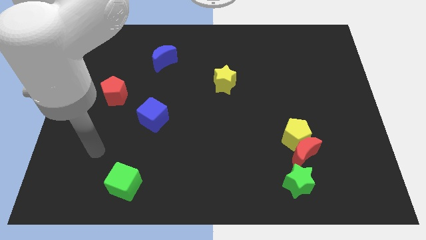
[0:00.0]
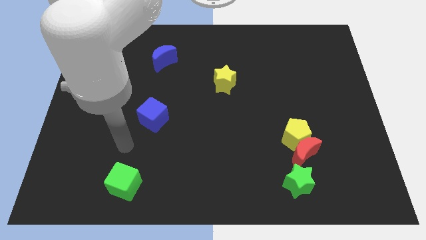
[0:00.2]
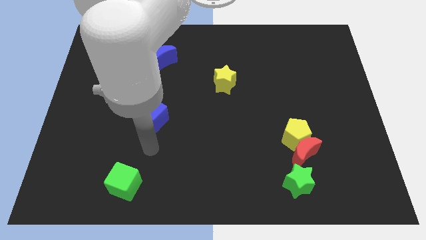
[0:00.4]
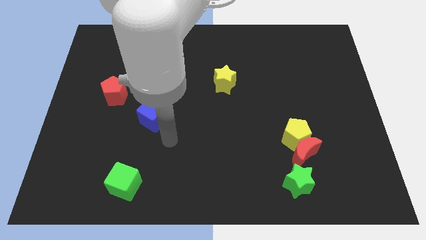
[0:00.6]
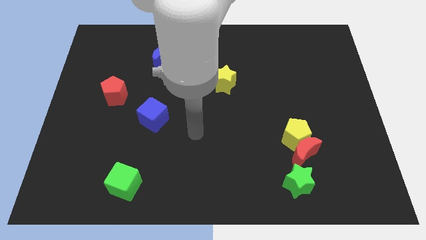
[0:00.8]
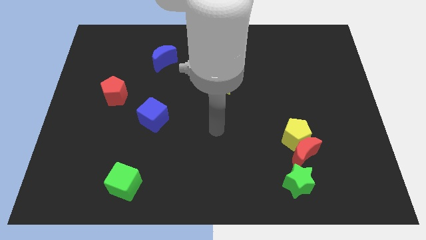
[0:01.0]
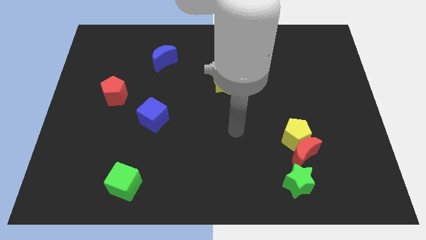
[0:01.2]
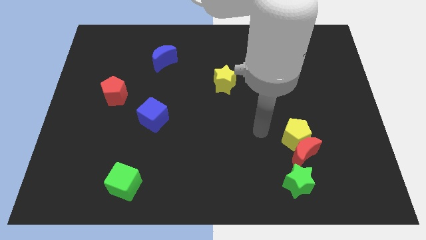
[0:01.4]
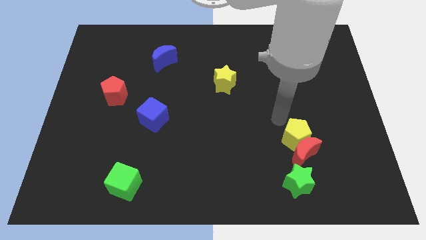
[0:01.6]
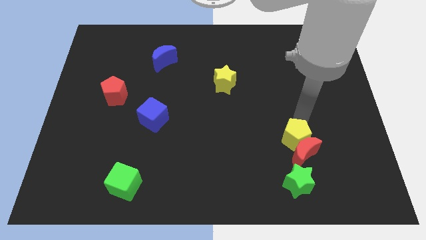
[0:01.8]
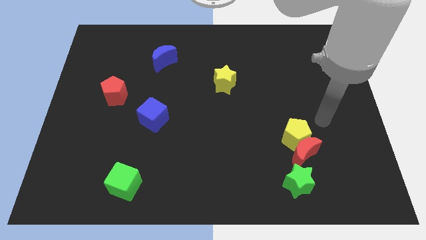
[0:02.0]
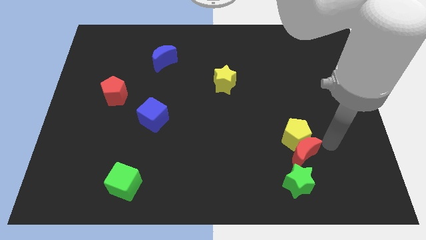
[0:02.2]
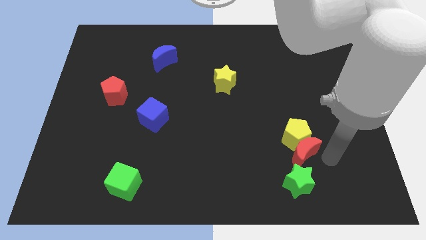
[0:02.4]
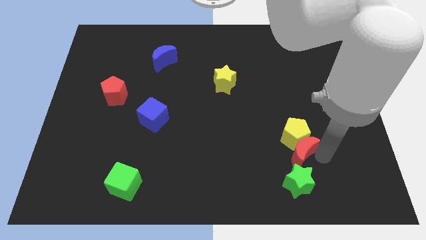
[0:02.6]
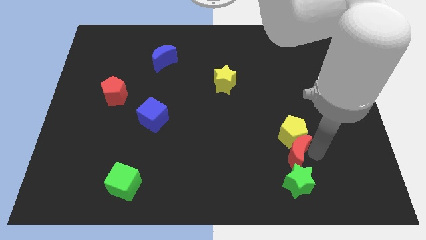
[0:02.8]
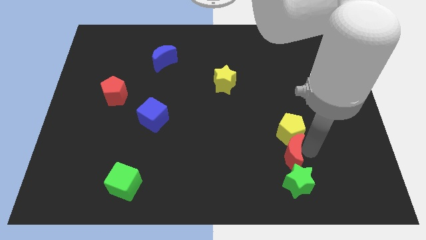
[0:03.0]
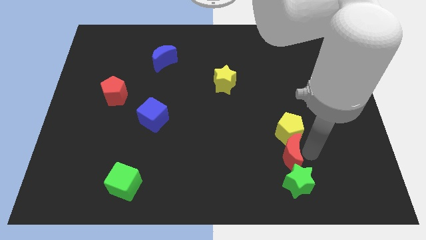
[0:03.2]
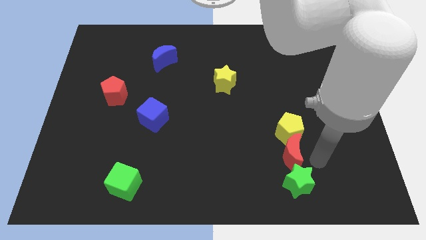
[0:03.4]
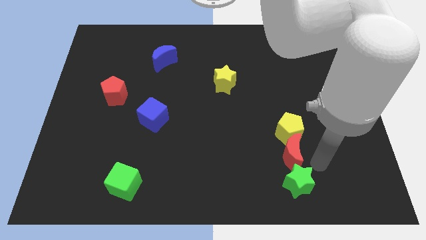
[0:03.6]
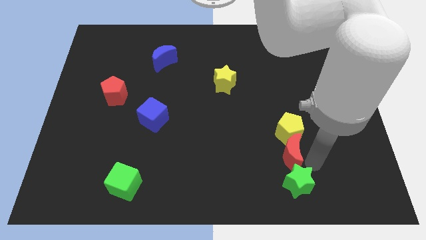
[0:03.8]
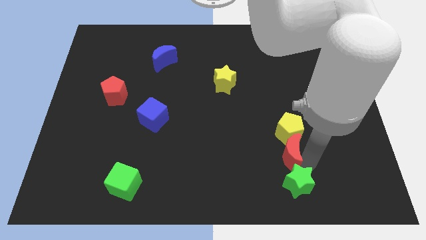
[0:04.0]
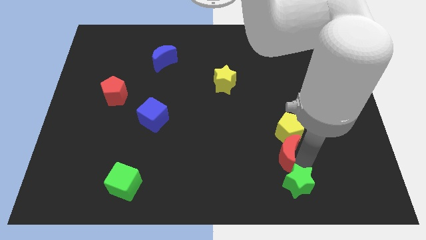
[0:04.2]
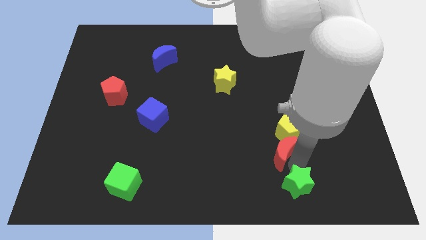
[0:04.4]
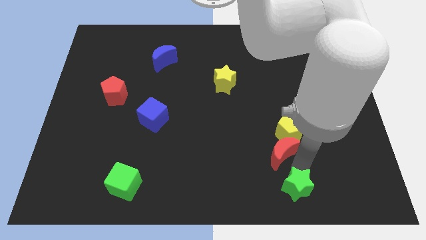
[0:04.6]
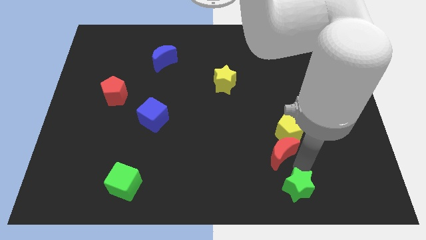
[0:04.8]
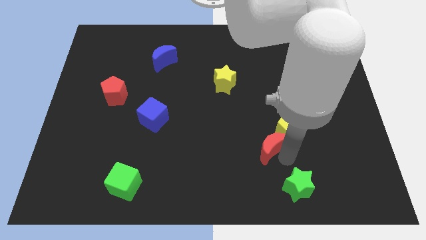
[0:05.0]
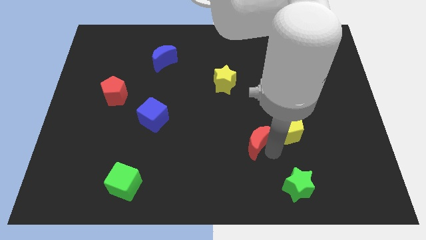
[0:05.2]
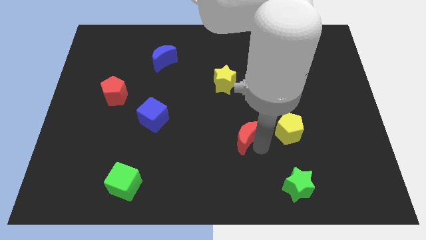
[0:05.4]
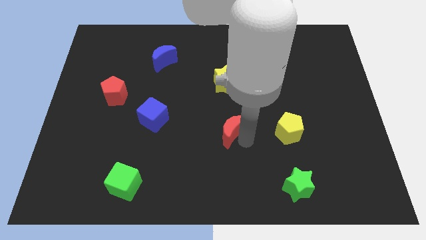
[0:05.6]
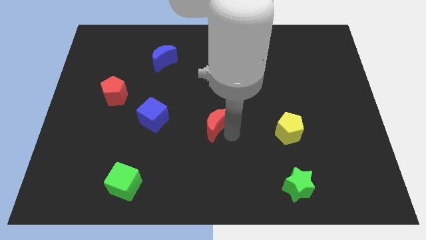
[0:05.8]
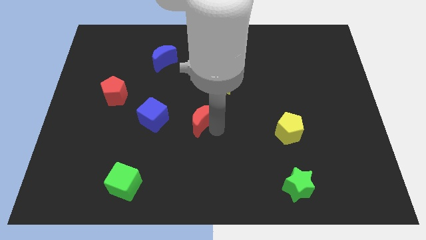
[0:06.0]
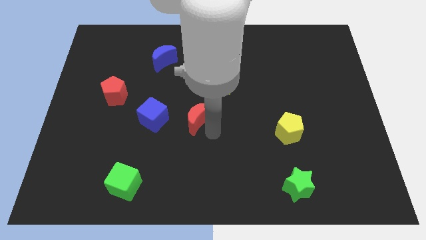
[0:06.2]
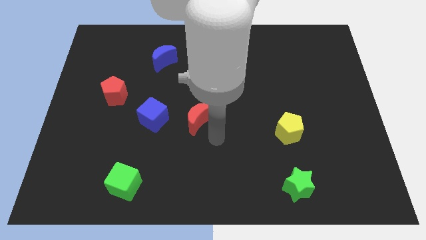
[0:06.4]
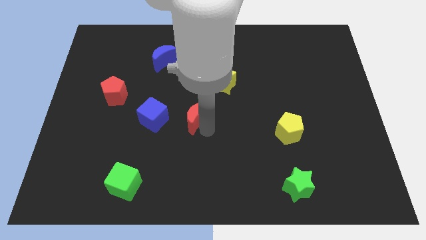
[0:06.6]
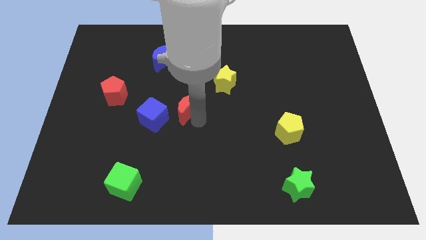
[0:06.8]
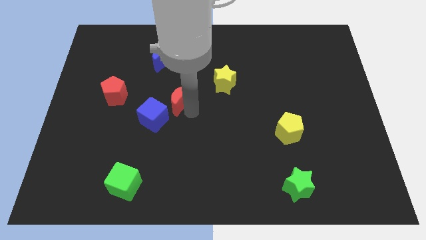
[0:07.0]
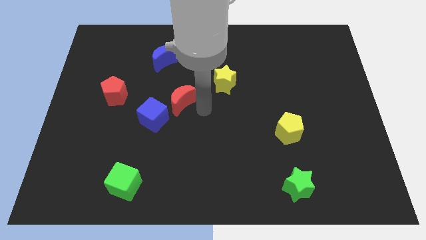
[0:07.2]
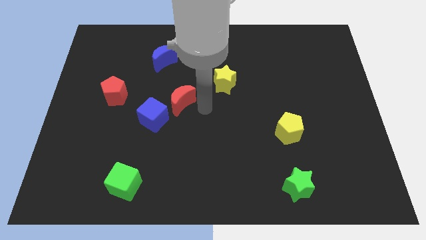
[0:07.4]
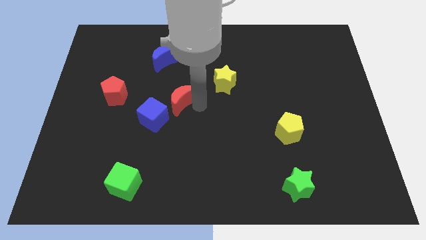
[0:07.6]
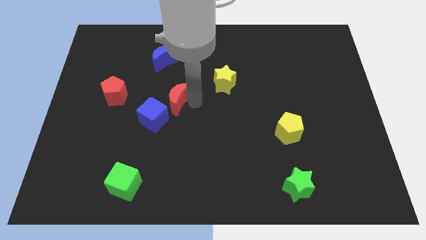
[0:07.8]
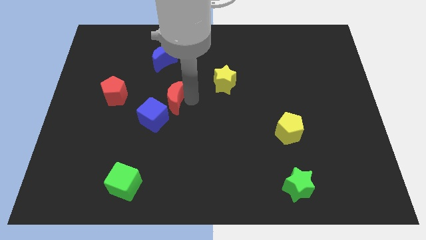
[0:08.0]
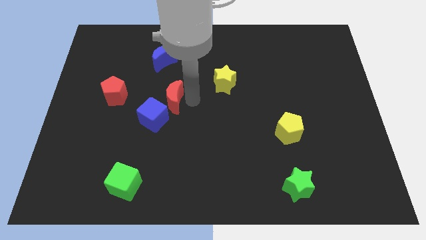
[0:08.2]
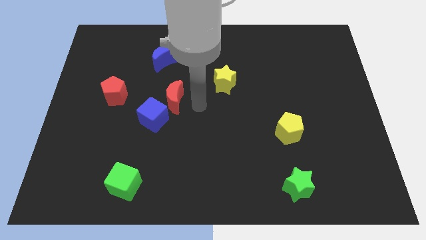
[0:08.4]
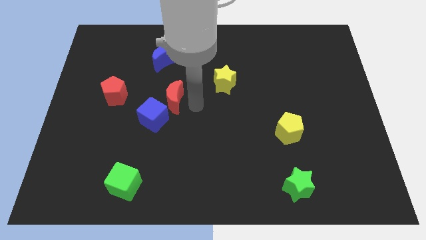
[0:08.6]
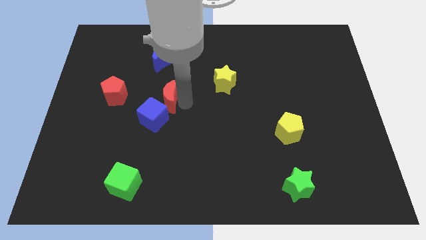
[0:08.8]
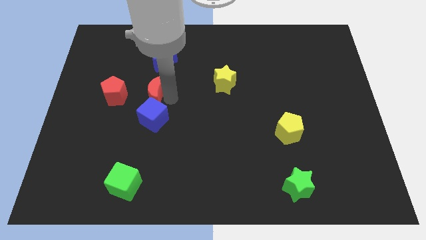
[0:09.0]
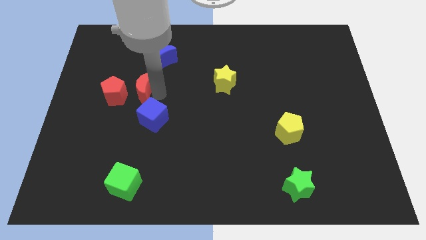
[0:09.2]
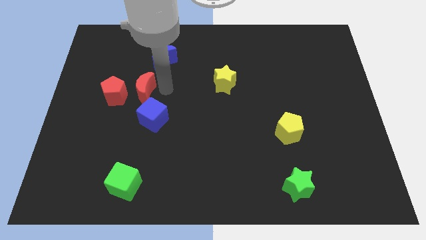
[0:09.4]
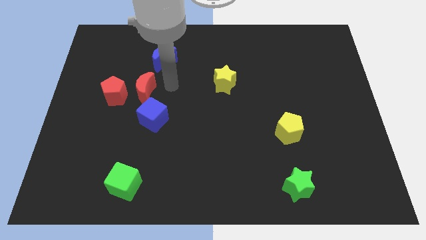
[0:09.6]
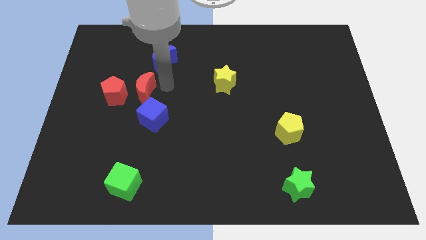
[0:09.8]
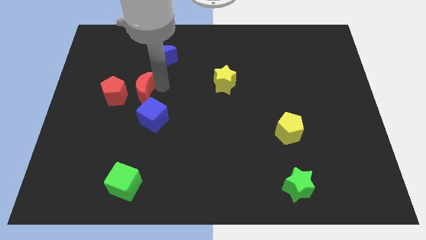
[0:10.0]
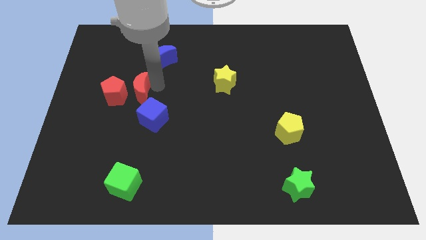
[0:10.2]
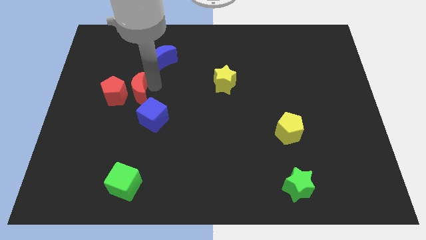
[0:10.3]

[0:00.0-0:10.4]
push the red moon towards the red pentagon

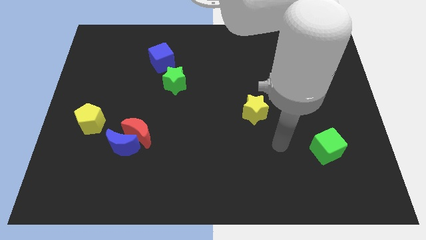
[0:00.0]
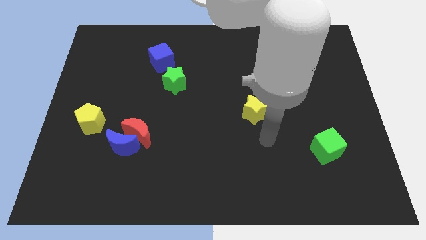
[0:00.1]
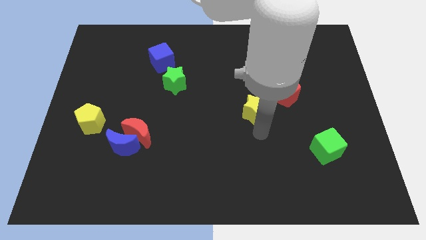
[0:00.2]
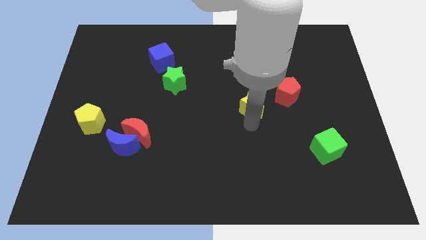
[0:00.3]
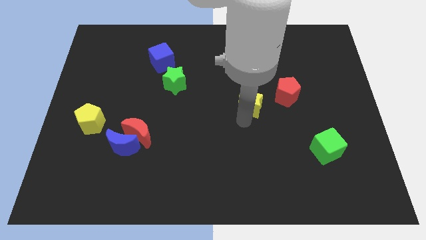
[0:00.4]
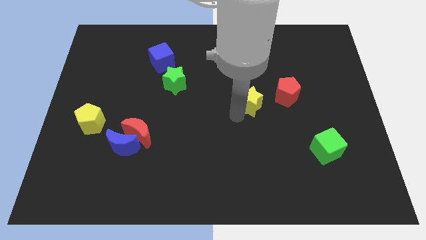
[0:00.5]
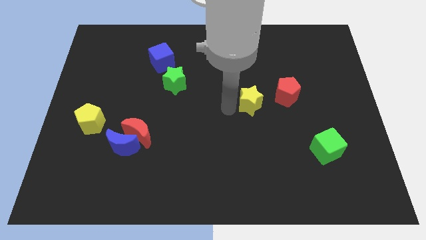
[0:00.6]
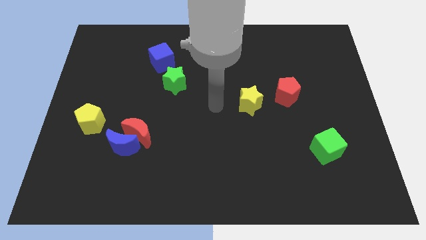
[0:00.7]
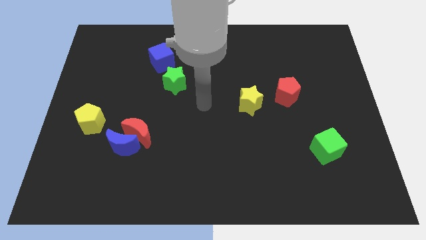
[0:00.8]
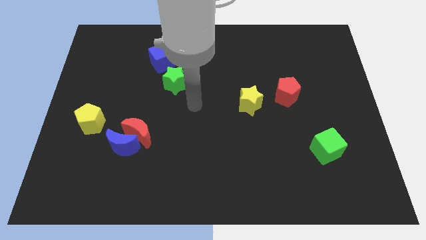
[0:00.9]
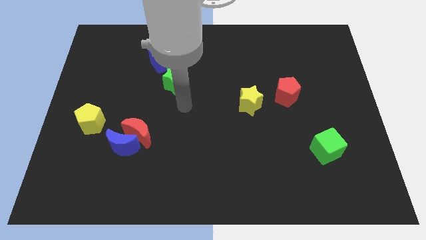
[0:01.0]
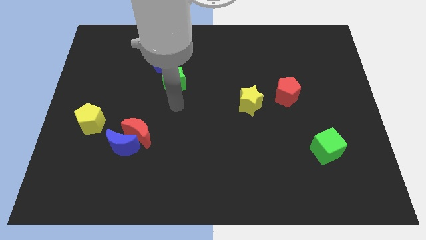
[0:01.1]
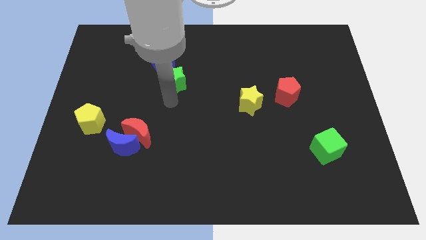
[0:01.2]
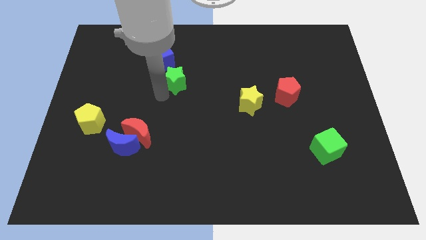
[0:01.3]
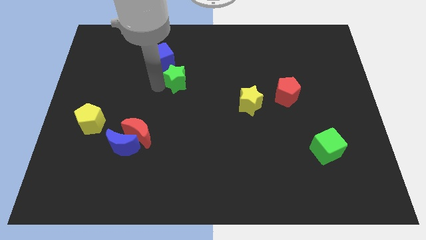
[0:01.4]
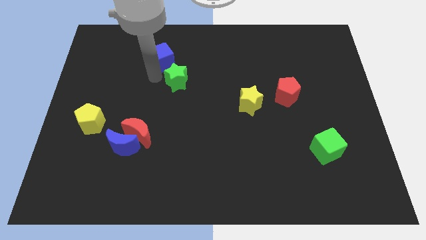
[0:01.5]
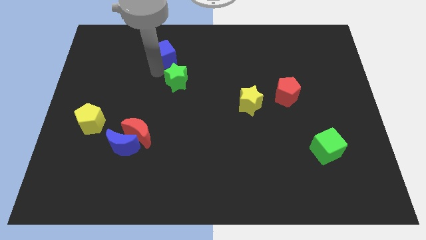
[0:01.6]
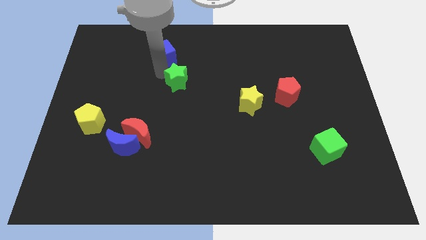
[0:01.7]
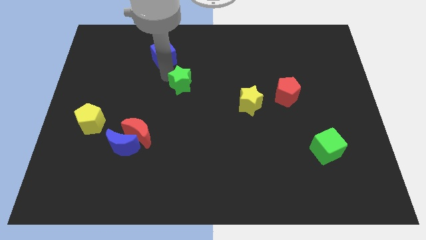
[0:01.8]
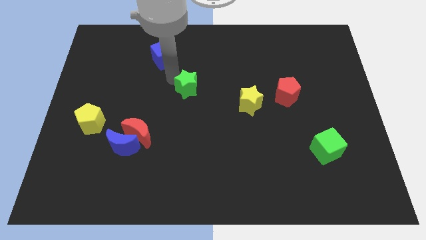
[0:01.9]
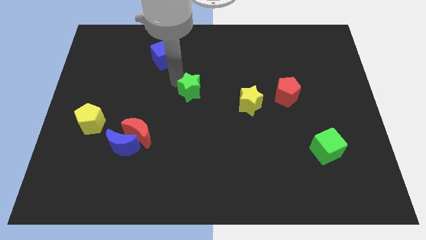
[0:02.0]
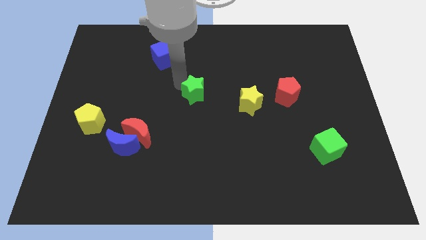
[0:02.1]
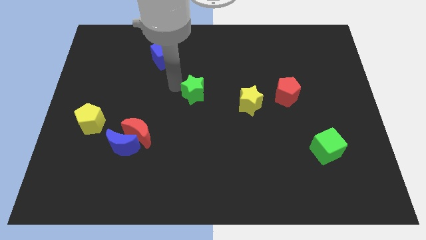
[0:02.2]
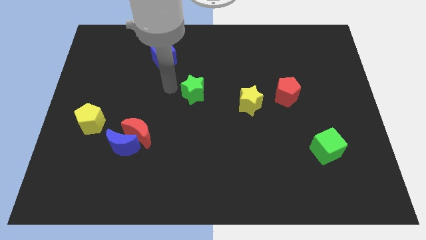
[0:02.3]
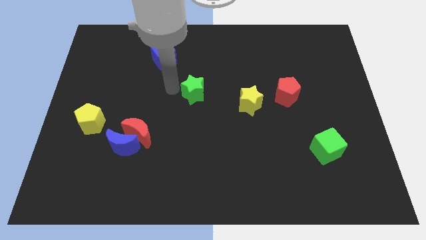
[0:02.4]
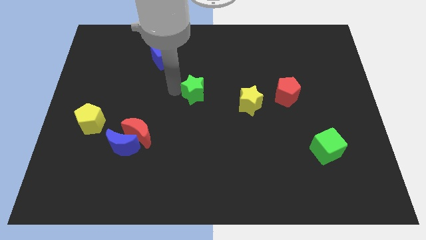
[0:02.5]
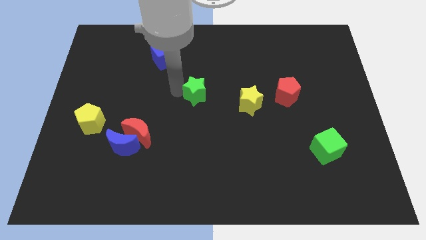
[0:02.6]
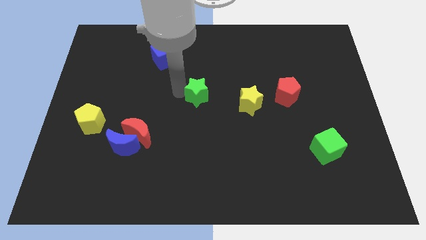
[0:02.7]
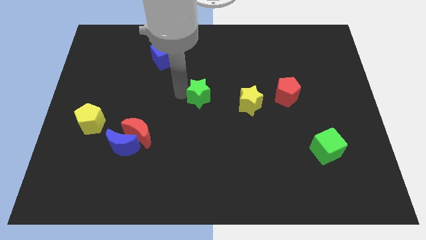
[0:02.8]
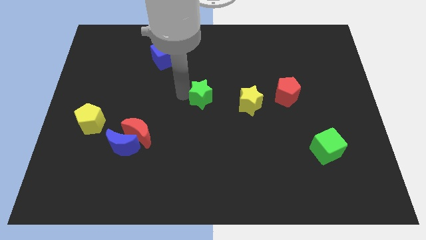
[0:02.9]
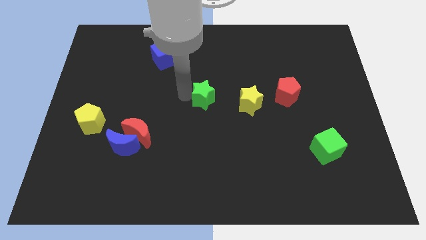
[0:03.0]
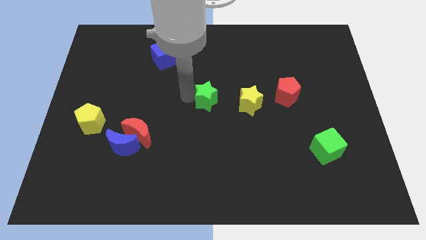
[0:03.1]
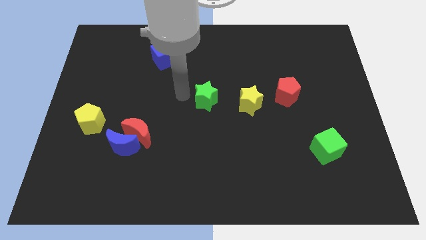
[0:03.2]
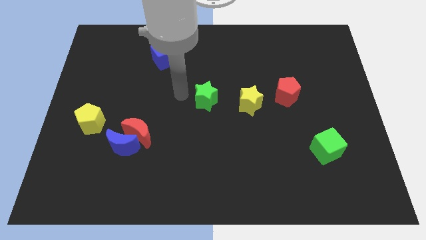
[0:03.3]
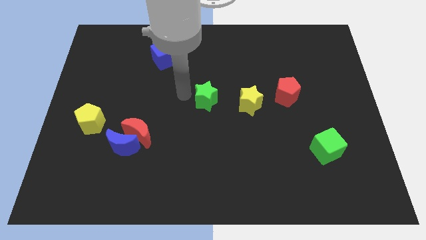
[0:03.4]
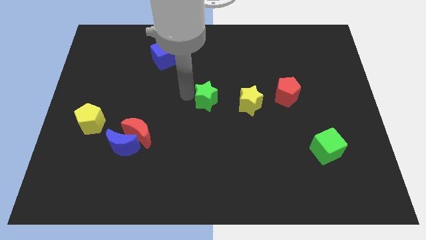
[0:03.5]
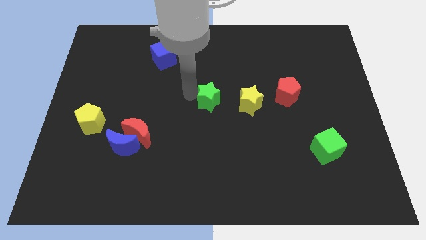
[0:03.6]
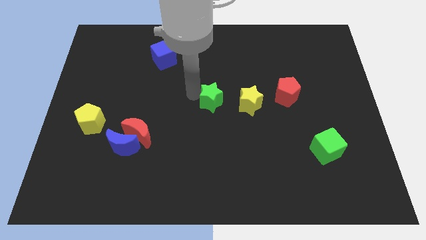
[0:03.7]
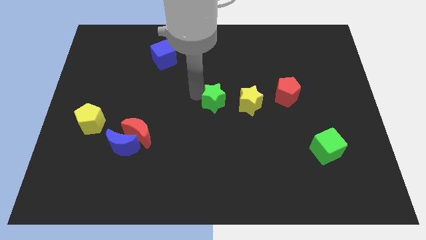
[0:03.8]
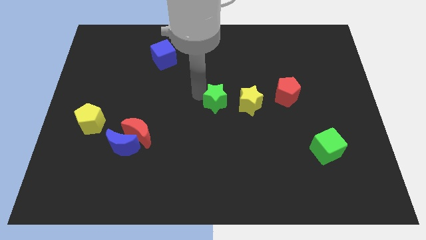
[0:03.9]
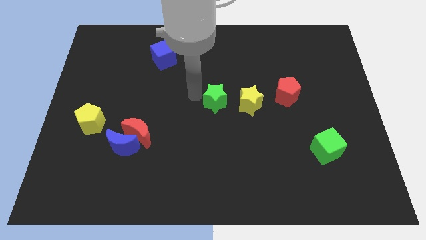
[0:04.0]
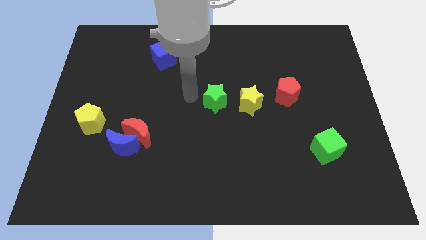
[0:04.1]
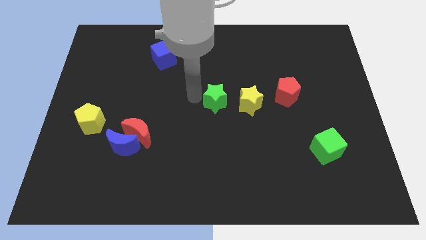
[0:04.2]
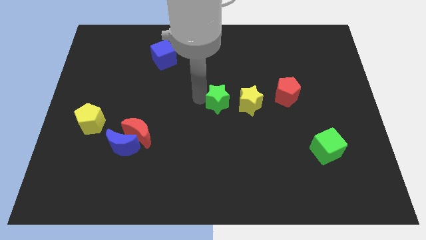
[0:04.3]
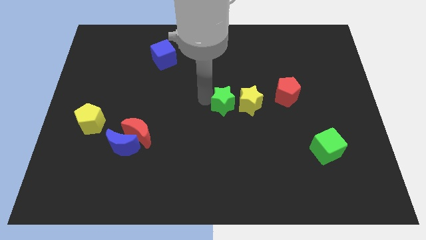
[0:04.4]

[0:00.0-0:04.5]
push the green star towards the yellow star
